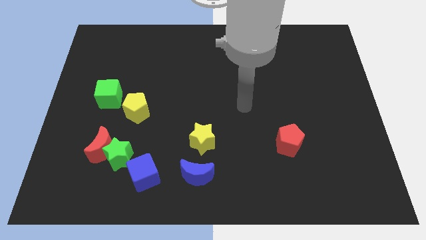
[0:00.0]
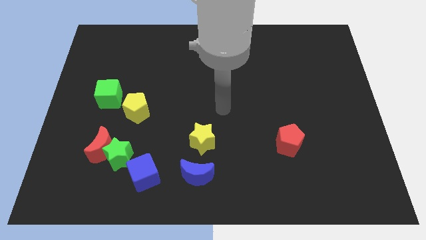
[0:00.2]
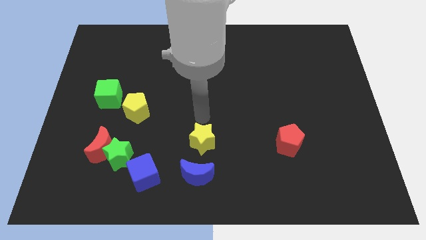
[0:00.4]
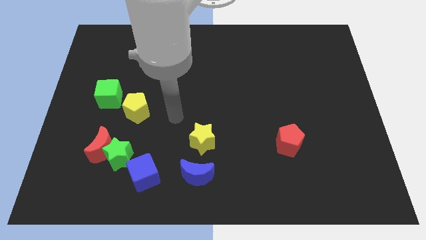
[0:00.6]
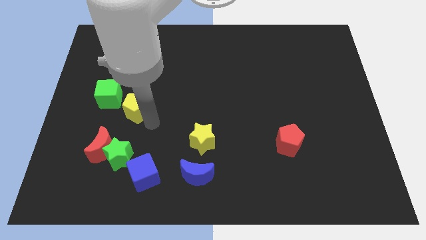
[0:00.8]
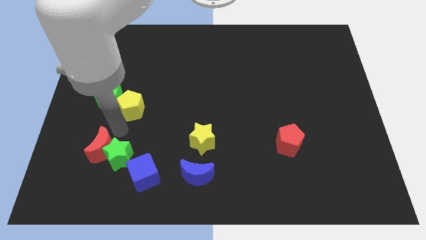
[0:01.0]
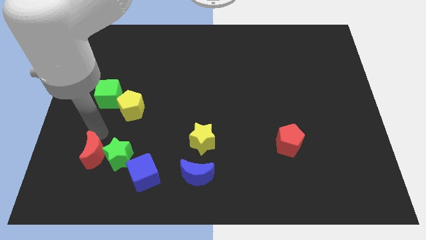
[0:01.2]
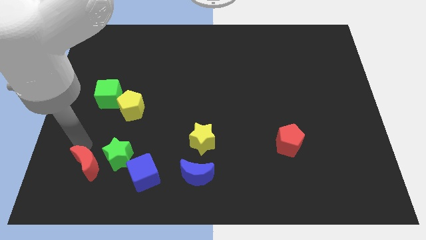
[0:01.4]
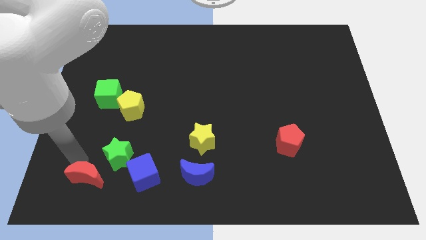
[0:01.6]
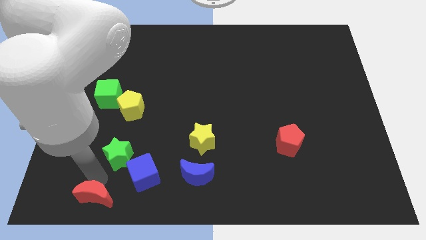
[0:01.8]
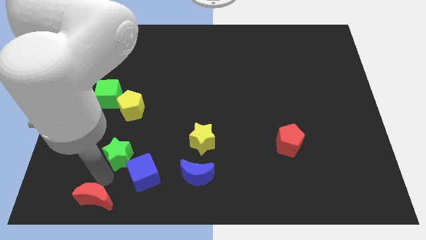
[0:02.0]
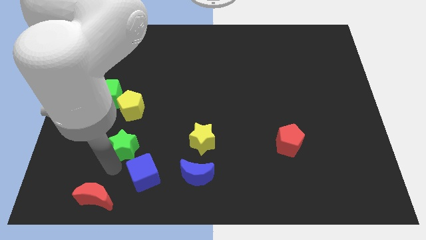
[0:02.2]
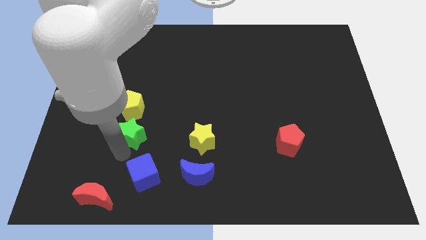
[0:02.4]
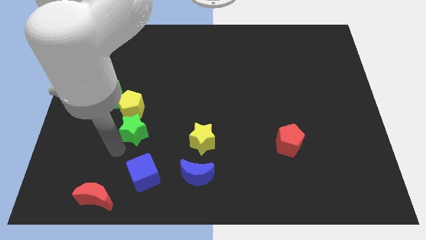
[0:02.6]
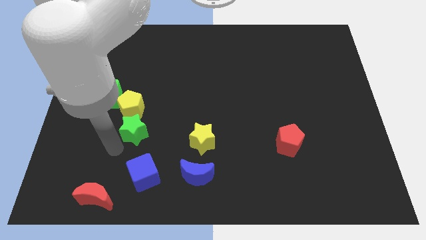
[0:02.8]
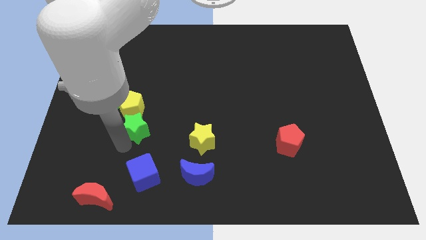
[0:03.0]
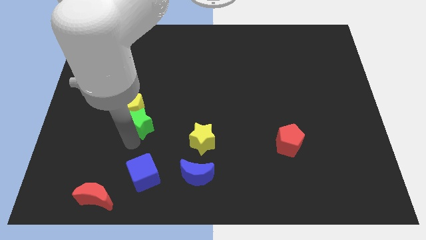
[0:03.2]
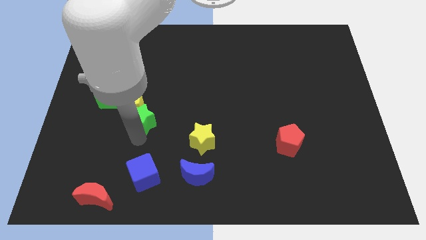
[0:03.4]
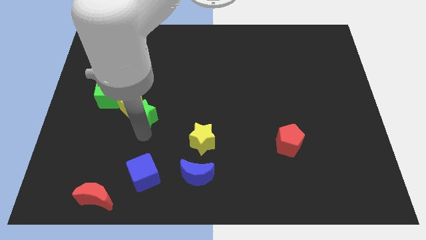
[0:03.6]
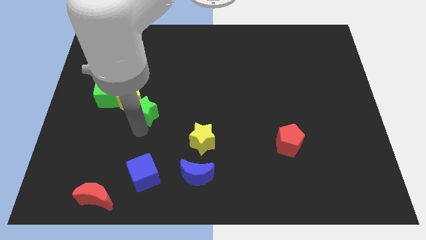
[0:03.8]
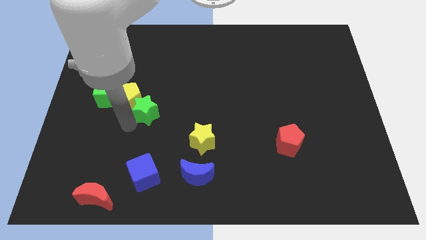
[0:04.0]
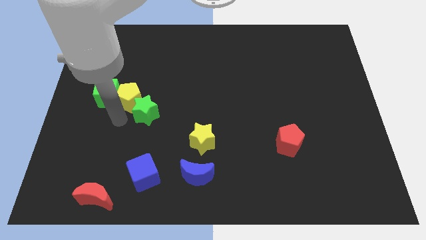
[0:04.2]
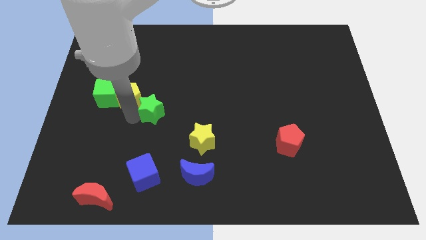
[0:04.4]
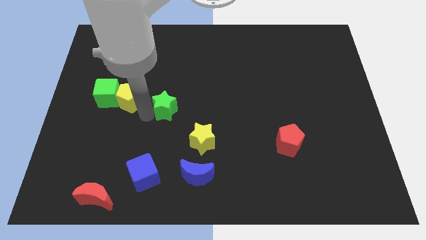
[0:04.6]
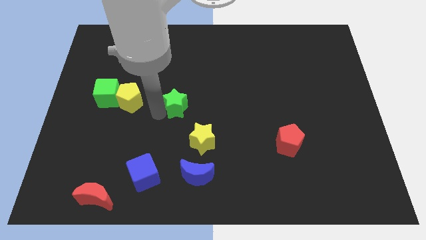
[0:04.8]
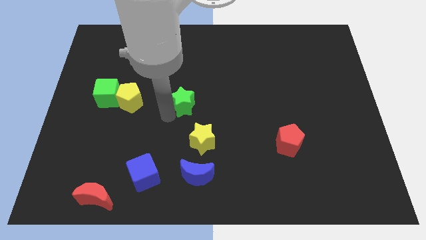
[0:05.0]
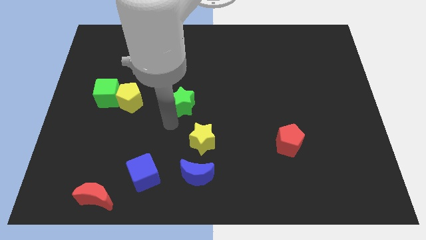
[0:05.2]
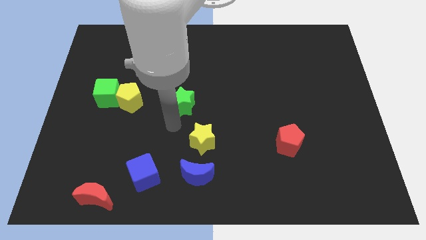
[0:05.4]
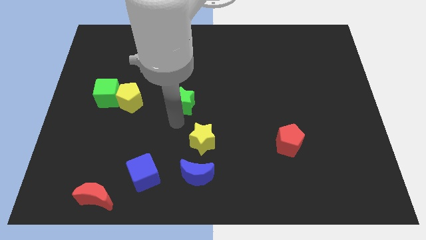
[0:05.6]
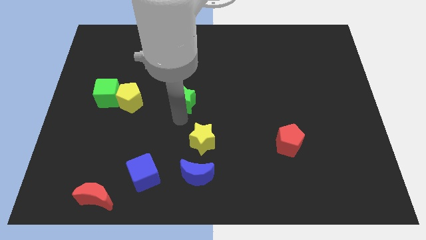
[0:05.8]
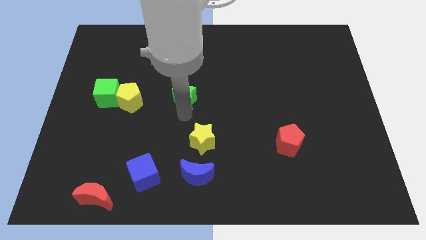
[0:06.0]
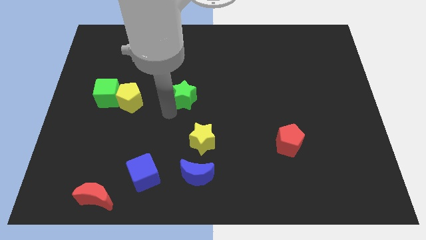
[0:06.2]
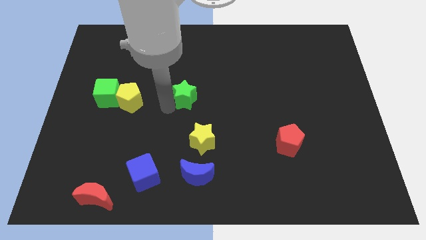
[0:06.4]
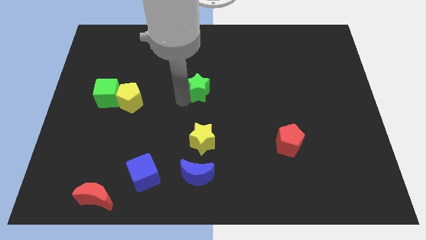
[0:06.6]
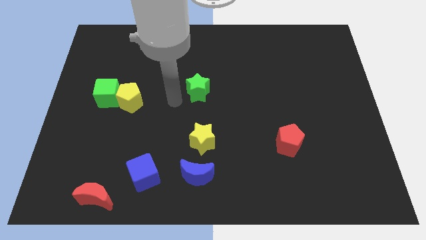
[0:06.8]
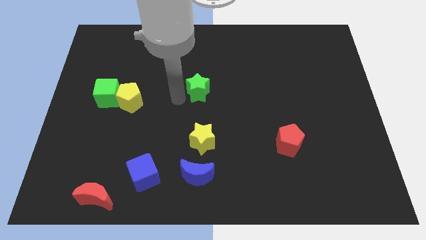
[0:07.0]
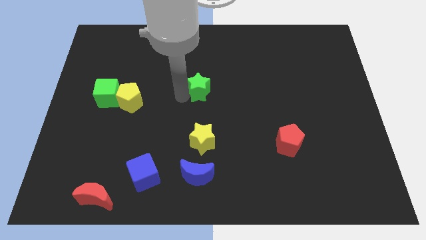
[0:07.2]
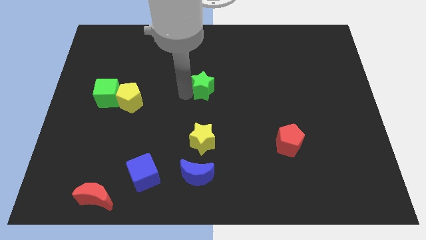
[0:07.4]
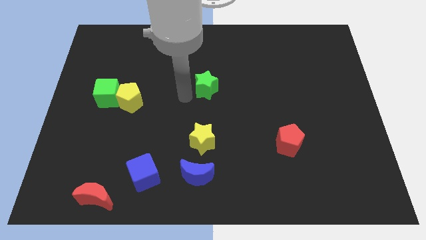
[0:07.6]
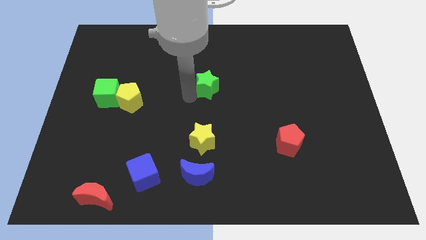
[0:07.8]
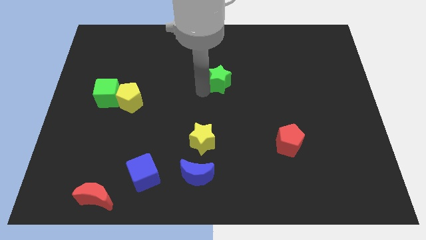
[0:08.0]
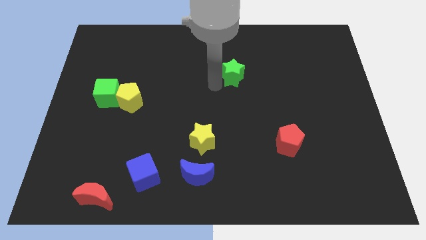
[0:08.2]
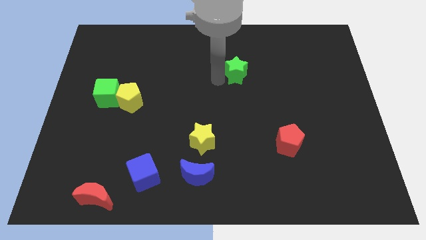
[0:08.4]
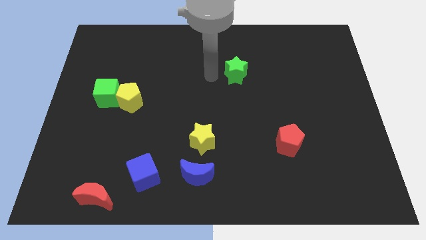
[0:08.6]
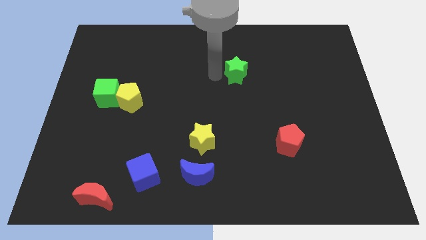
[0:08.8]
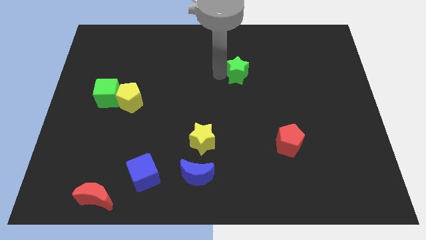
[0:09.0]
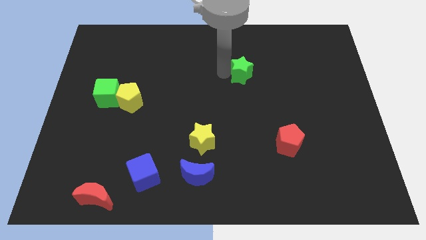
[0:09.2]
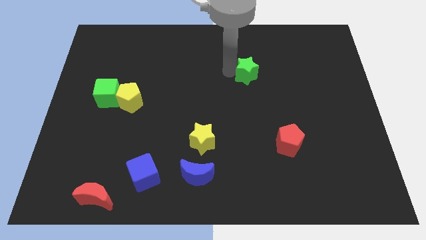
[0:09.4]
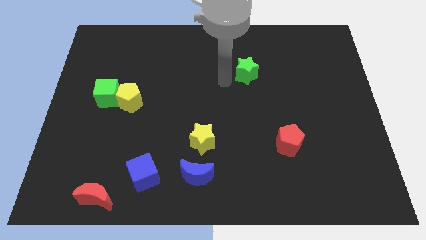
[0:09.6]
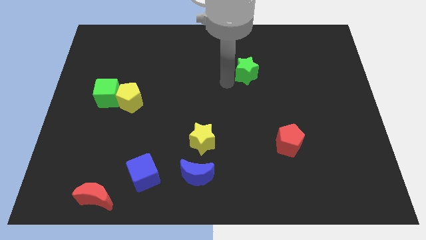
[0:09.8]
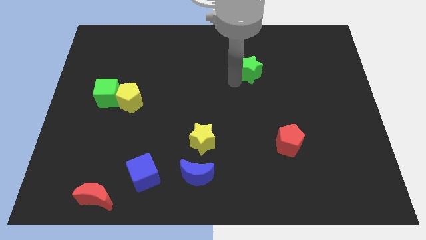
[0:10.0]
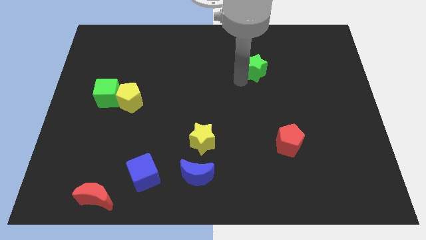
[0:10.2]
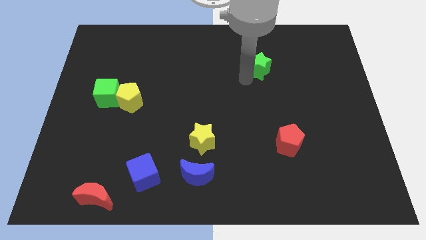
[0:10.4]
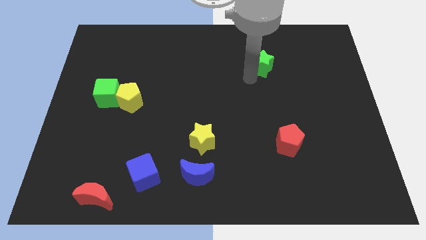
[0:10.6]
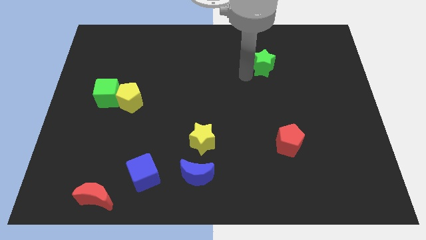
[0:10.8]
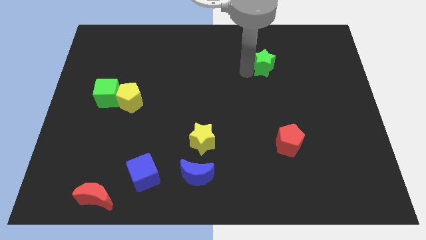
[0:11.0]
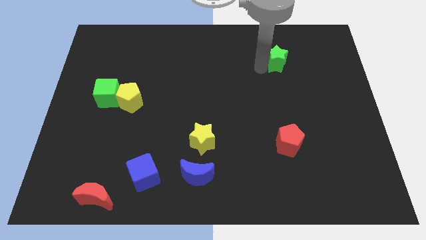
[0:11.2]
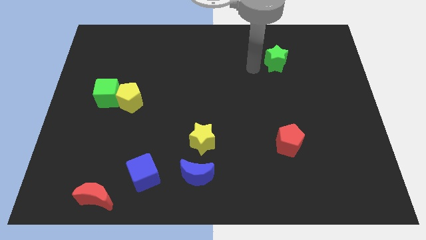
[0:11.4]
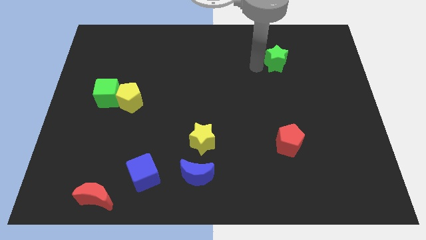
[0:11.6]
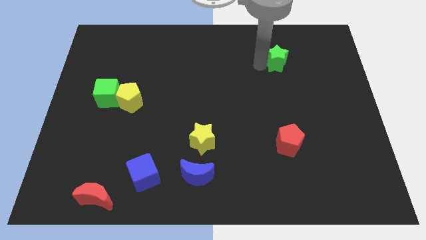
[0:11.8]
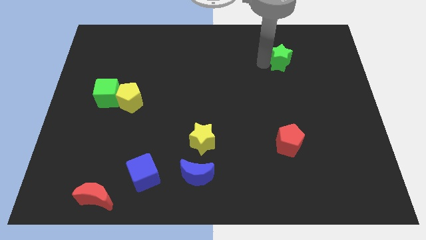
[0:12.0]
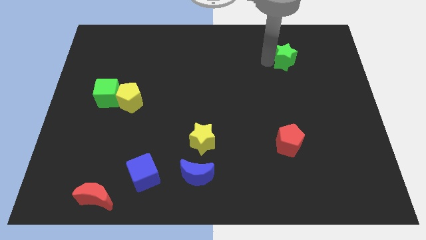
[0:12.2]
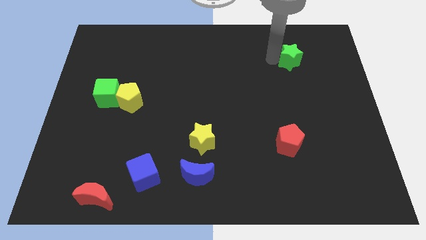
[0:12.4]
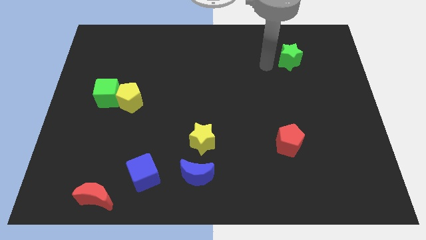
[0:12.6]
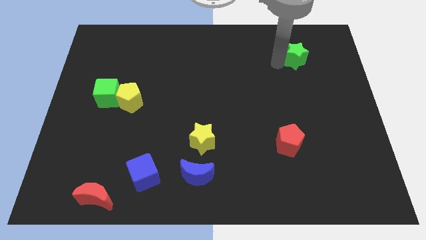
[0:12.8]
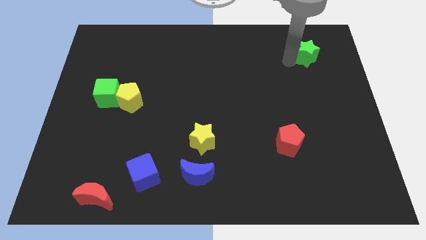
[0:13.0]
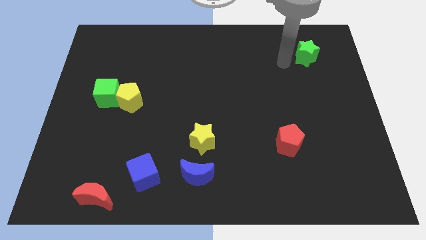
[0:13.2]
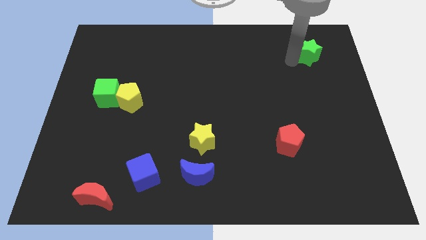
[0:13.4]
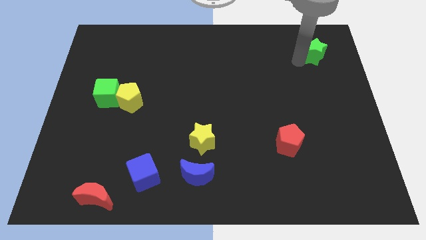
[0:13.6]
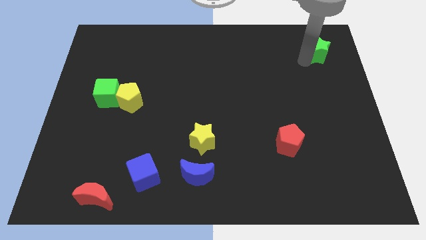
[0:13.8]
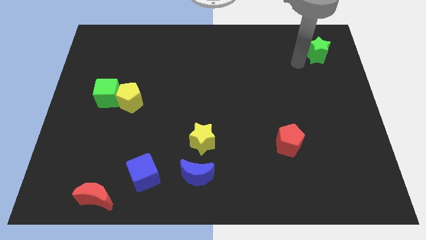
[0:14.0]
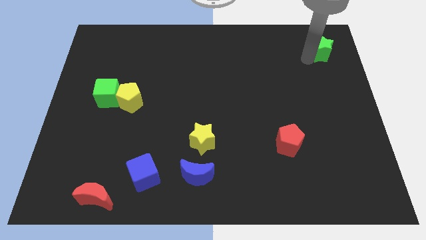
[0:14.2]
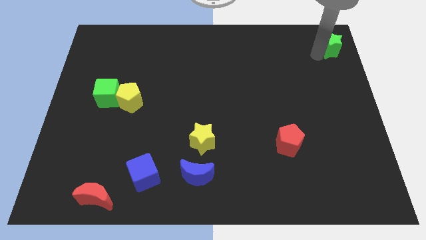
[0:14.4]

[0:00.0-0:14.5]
push the green star to the top right corner
